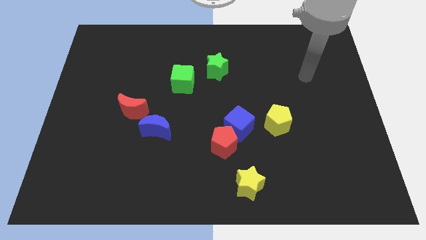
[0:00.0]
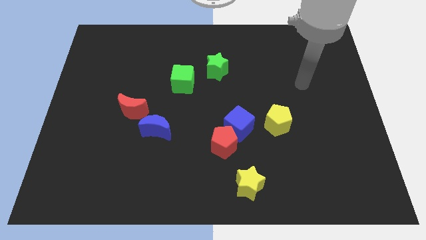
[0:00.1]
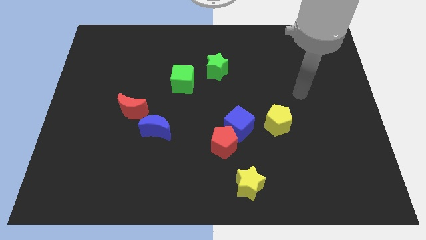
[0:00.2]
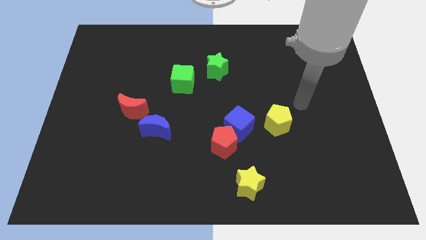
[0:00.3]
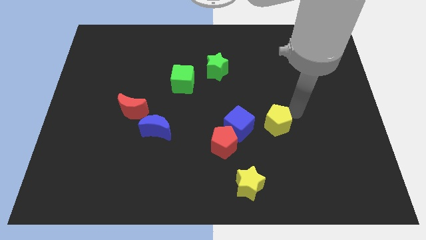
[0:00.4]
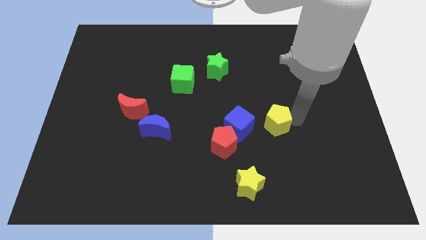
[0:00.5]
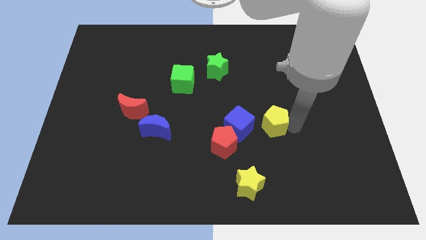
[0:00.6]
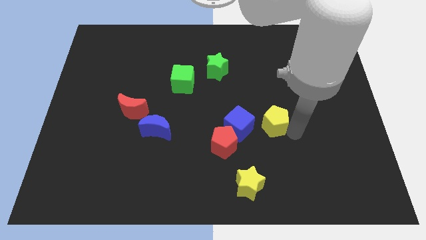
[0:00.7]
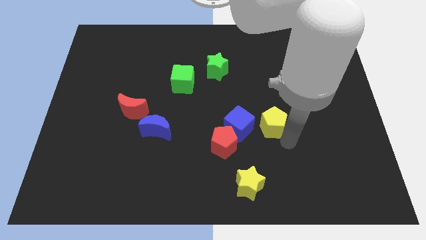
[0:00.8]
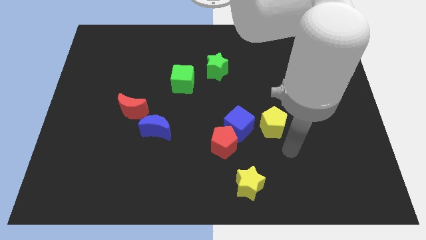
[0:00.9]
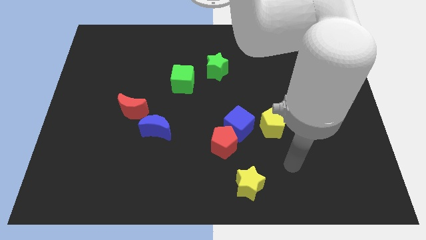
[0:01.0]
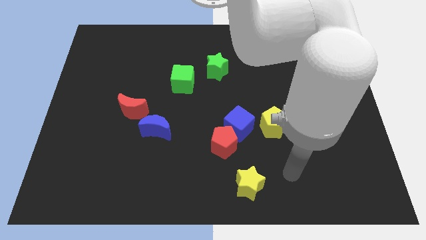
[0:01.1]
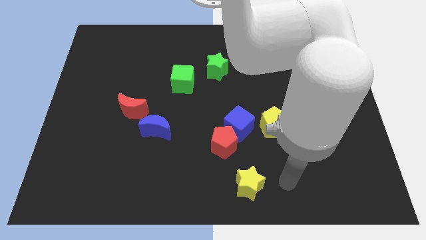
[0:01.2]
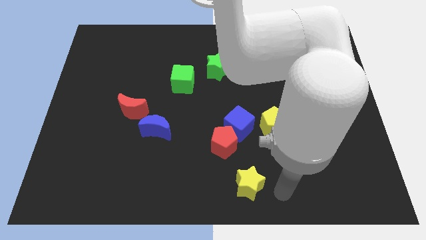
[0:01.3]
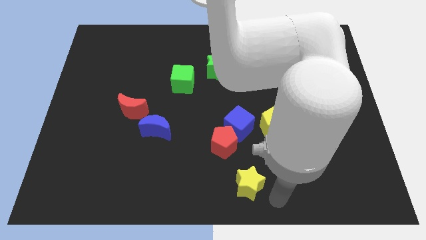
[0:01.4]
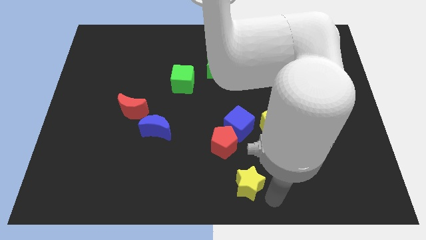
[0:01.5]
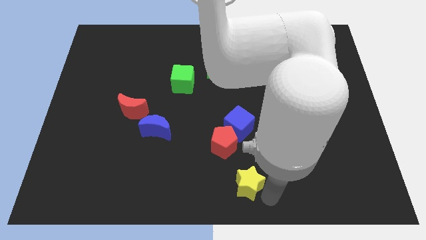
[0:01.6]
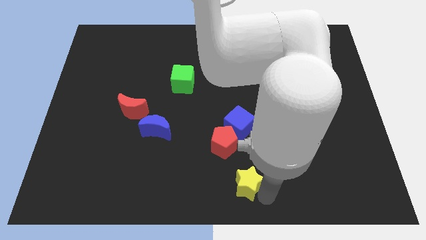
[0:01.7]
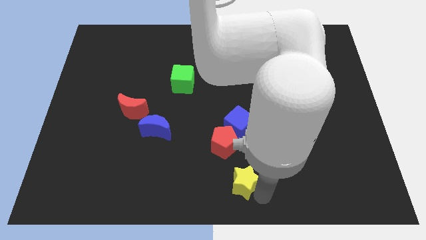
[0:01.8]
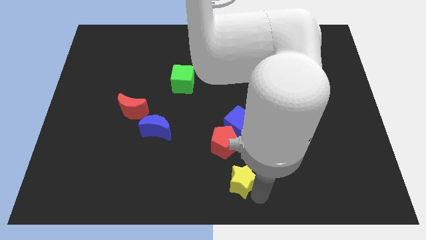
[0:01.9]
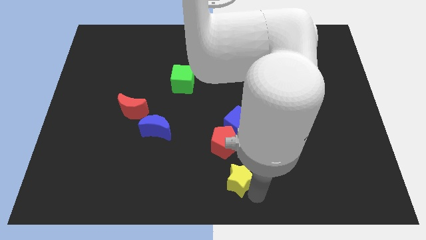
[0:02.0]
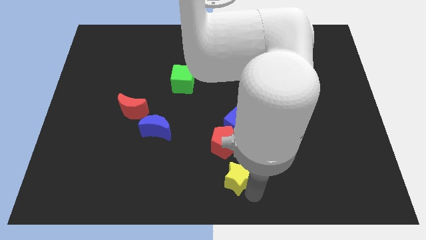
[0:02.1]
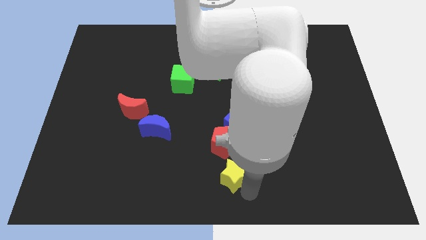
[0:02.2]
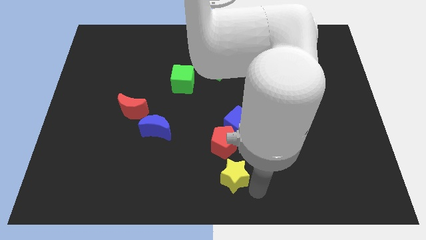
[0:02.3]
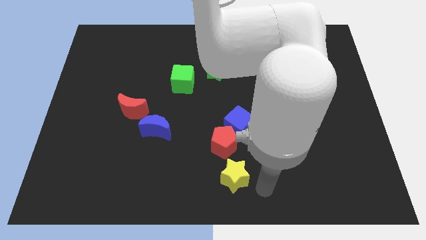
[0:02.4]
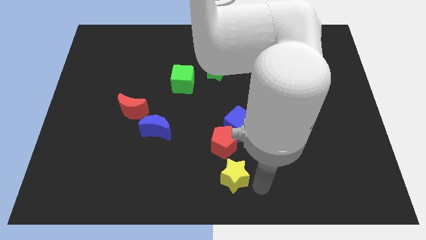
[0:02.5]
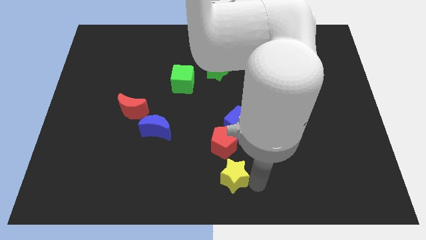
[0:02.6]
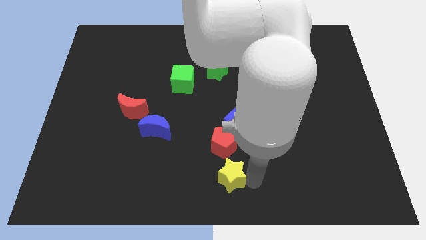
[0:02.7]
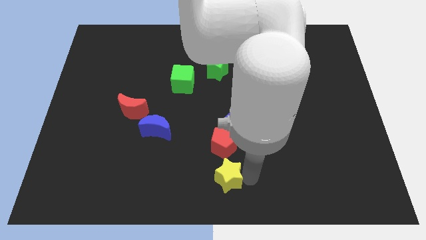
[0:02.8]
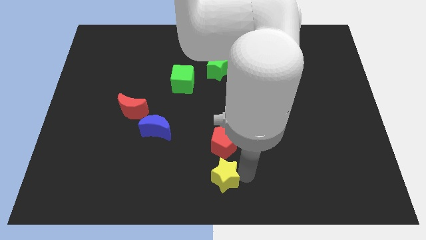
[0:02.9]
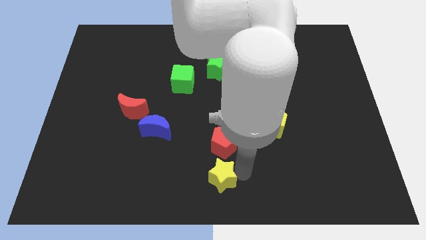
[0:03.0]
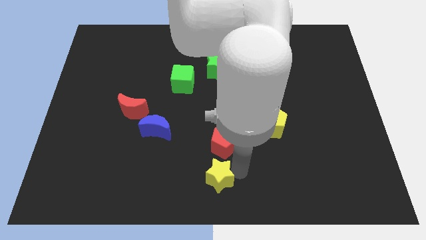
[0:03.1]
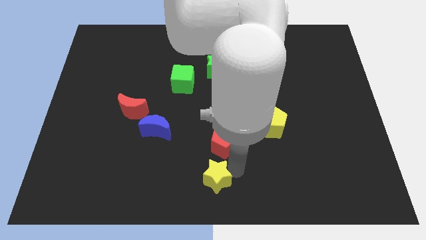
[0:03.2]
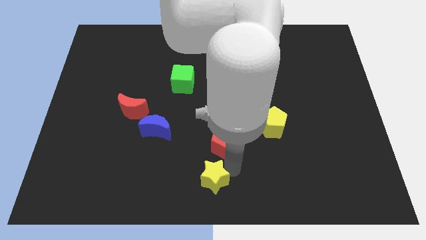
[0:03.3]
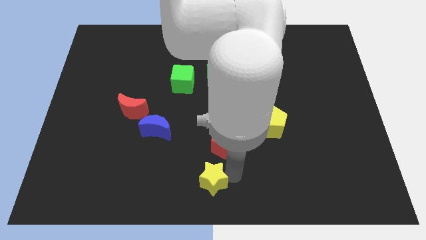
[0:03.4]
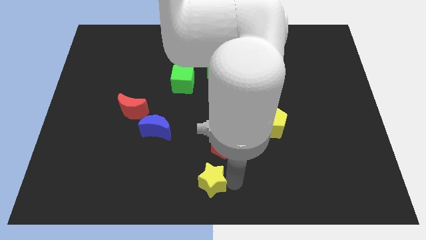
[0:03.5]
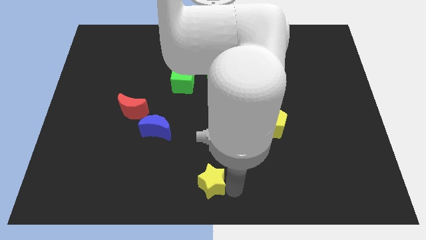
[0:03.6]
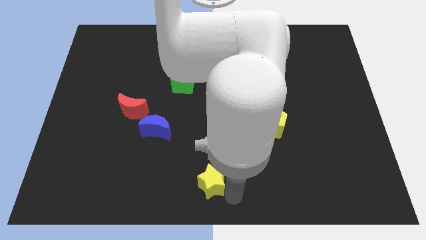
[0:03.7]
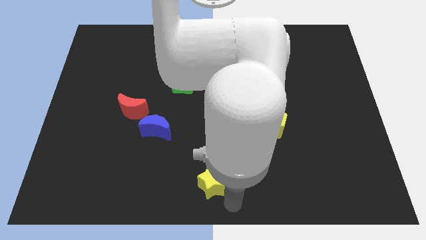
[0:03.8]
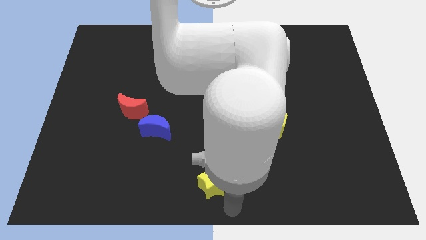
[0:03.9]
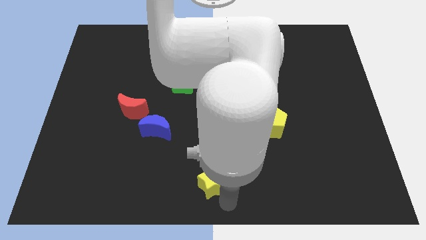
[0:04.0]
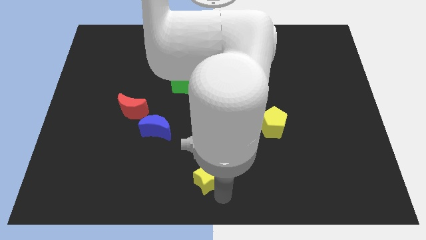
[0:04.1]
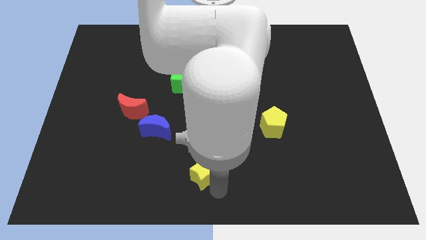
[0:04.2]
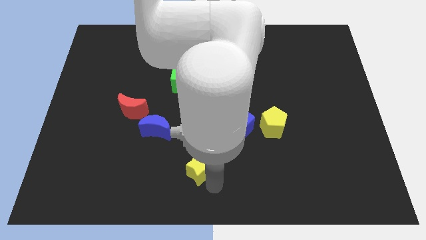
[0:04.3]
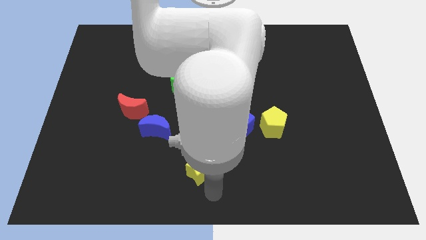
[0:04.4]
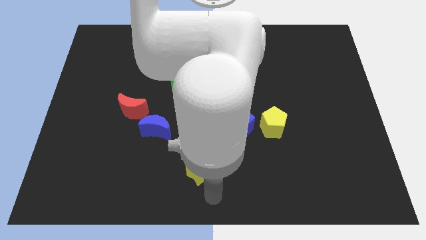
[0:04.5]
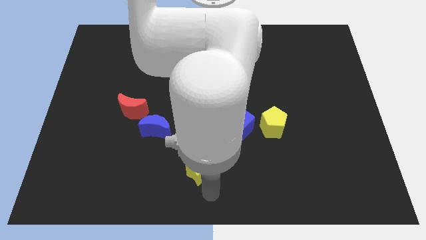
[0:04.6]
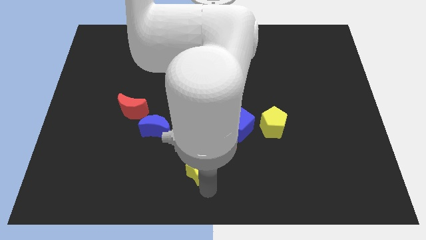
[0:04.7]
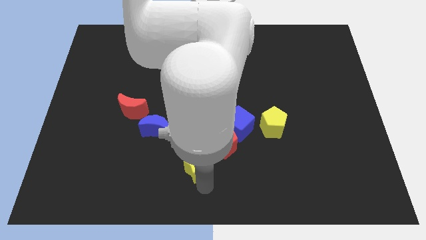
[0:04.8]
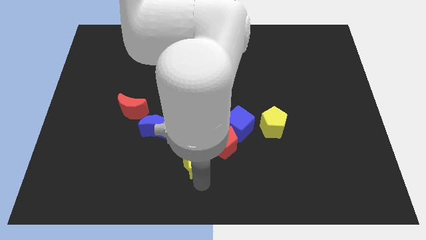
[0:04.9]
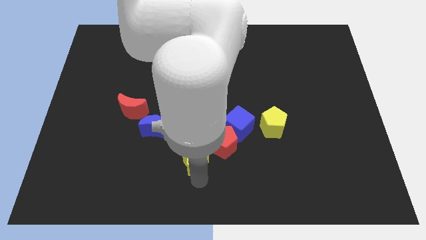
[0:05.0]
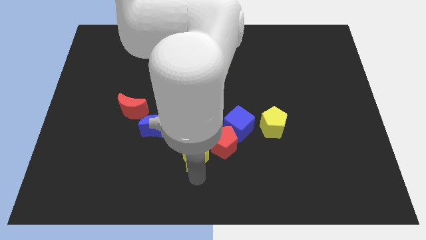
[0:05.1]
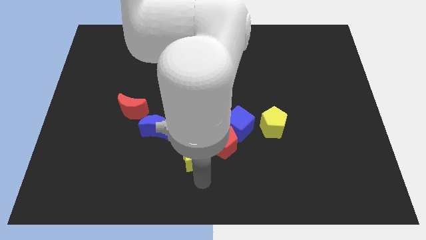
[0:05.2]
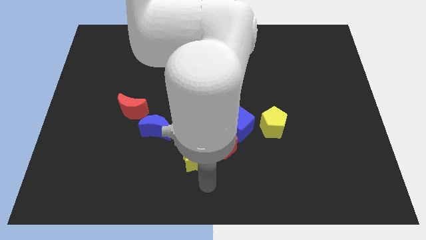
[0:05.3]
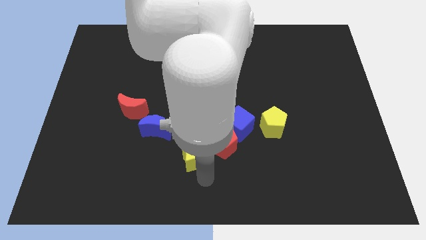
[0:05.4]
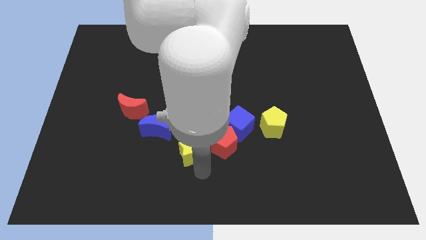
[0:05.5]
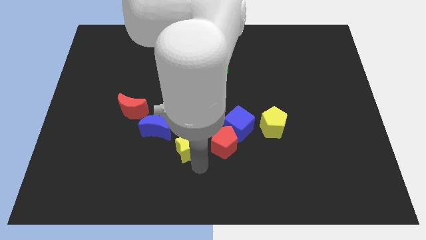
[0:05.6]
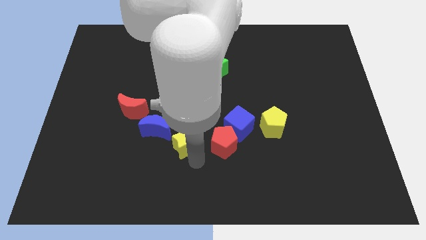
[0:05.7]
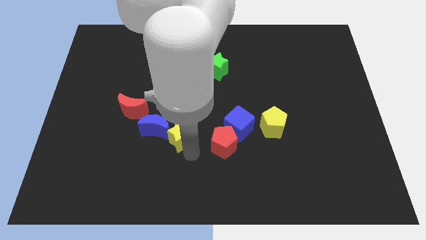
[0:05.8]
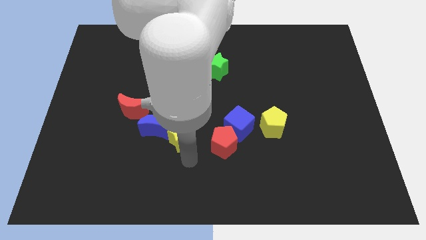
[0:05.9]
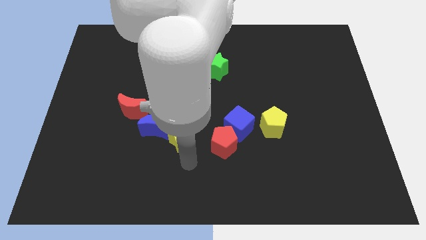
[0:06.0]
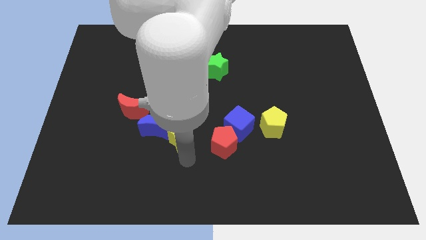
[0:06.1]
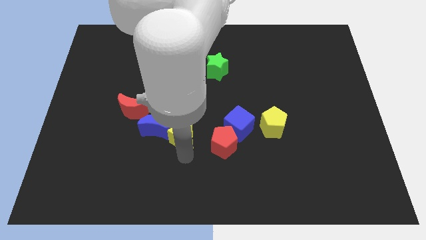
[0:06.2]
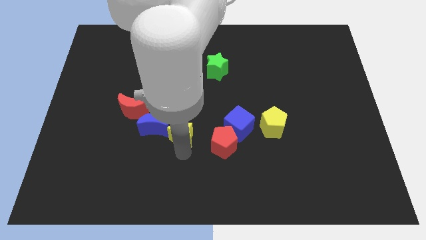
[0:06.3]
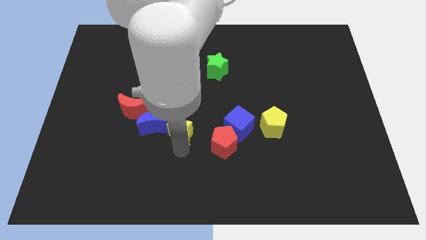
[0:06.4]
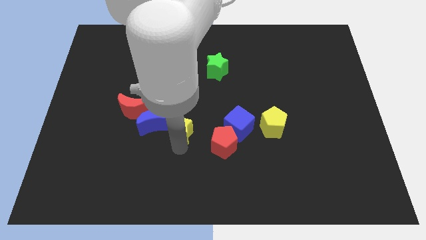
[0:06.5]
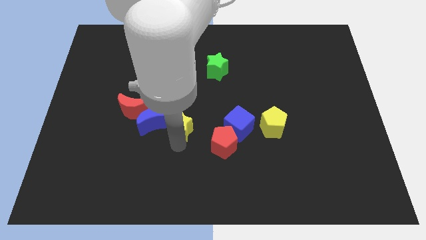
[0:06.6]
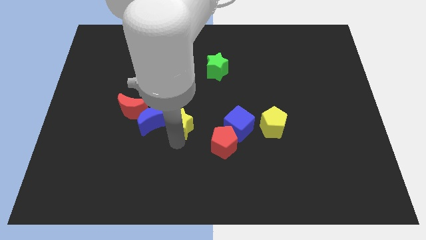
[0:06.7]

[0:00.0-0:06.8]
put the yellow star just right of the red moon
